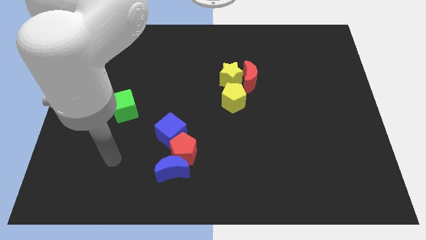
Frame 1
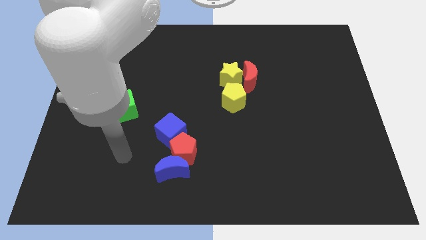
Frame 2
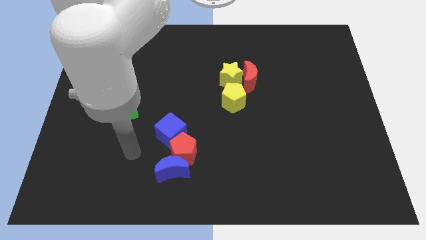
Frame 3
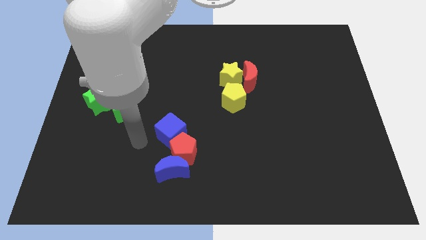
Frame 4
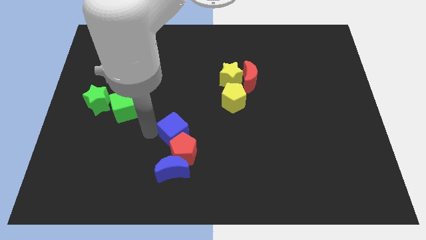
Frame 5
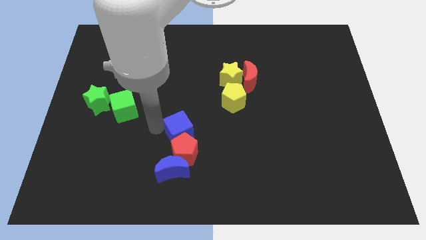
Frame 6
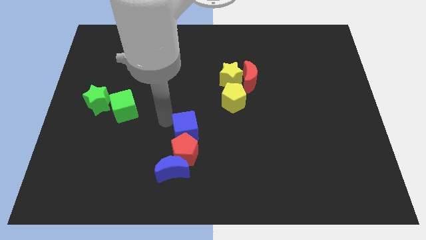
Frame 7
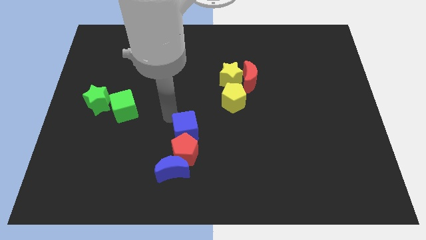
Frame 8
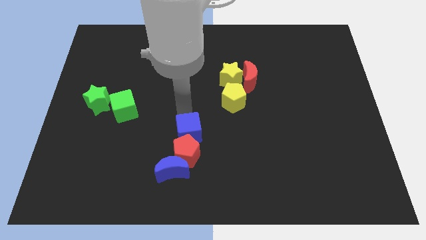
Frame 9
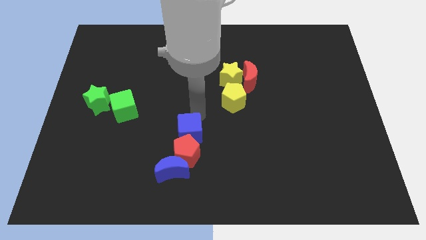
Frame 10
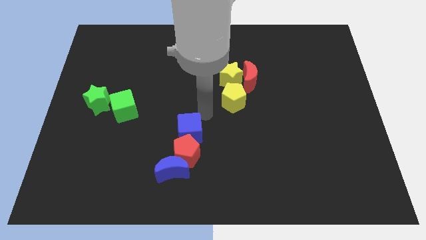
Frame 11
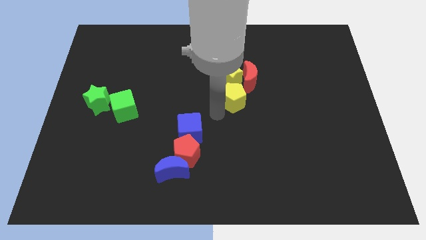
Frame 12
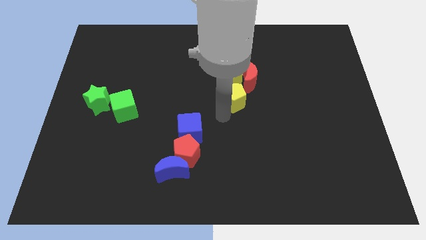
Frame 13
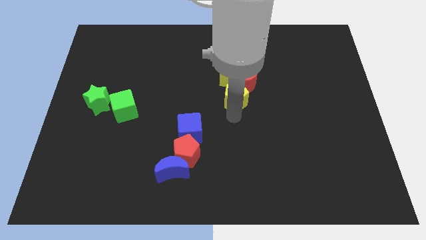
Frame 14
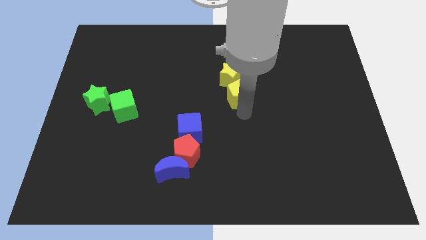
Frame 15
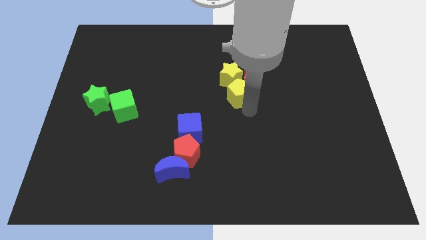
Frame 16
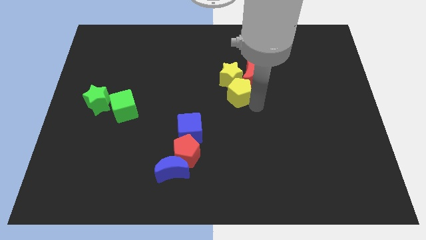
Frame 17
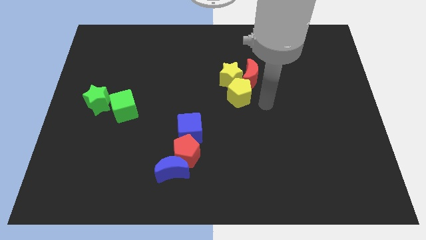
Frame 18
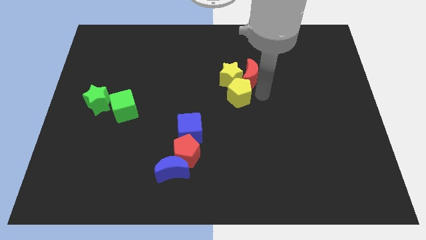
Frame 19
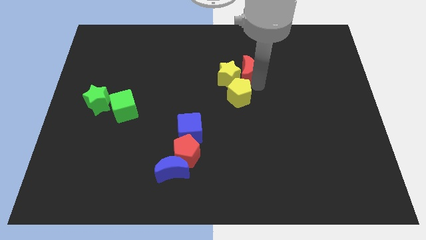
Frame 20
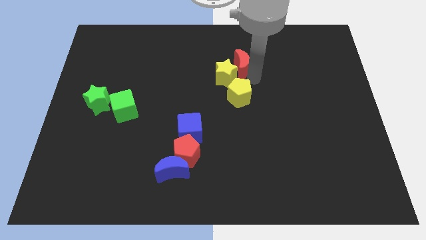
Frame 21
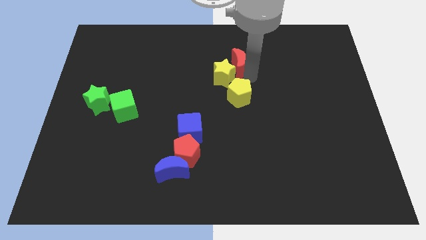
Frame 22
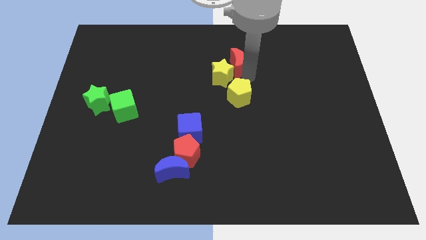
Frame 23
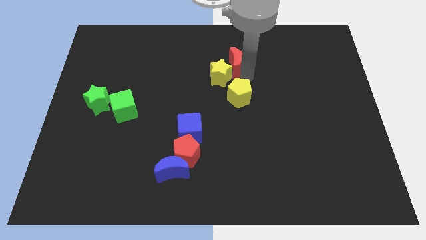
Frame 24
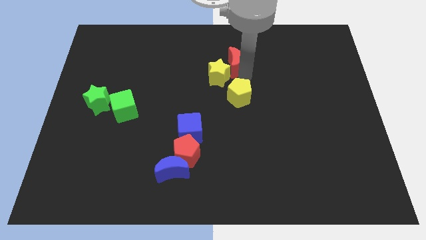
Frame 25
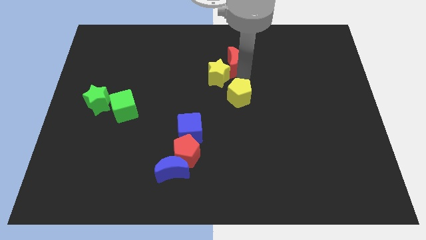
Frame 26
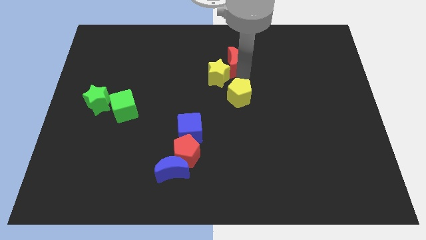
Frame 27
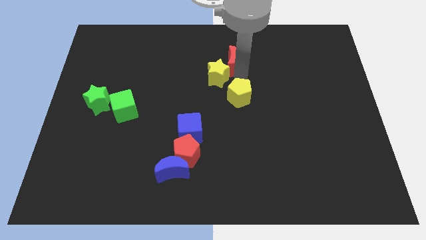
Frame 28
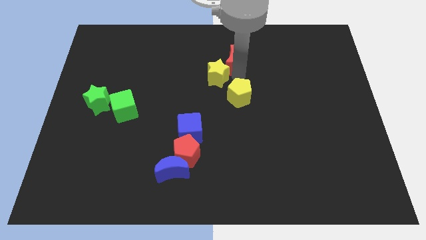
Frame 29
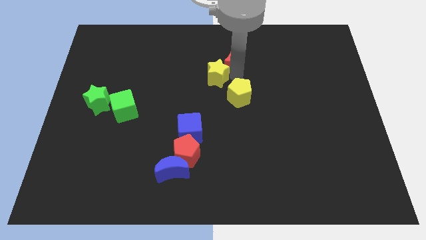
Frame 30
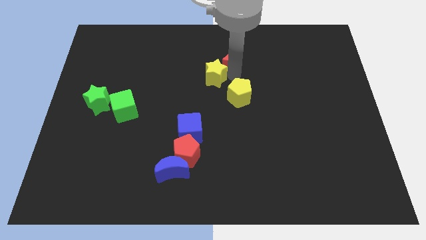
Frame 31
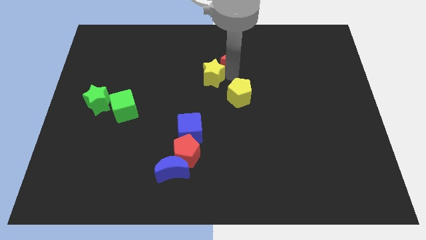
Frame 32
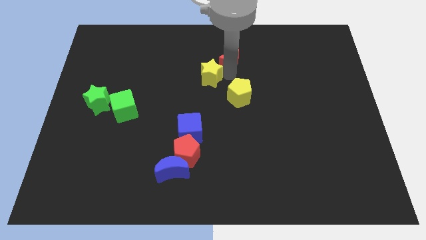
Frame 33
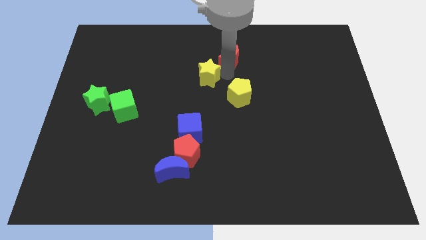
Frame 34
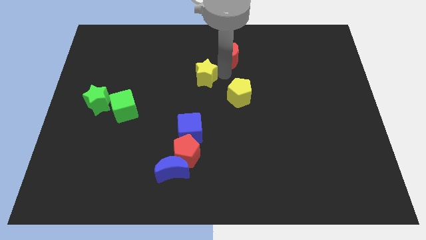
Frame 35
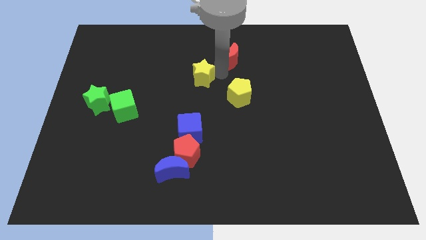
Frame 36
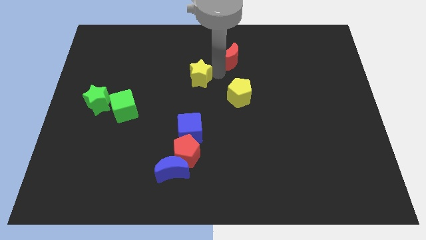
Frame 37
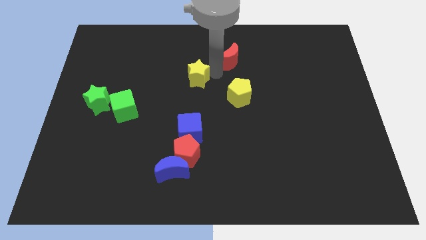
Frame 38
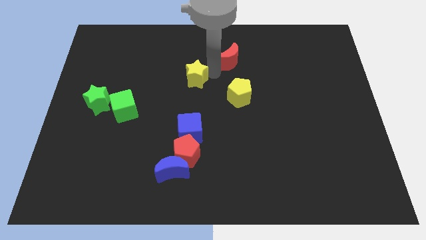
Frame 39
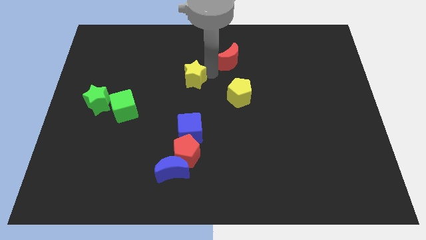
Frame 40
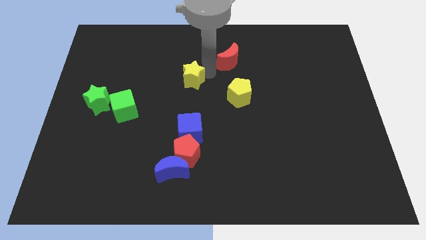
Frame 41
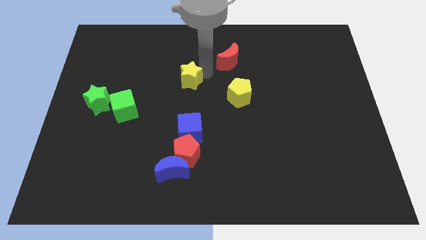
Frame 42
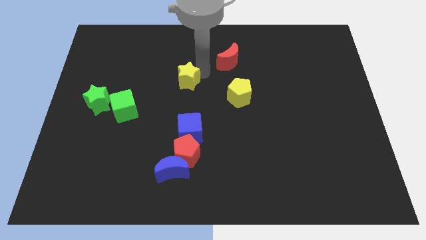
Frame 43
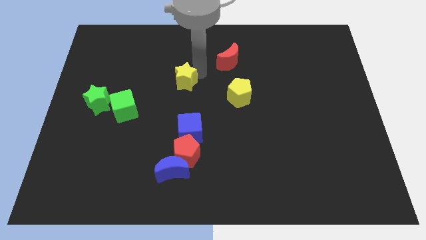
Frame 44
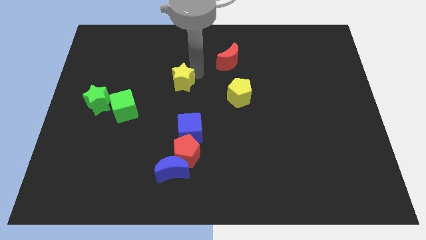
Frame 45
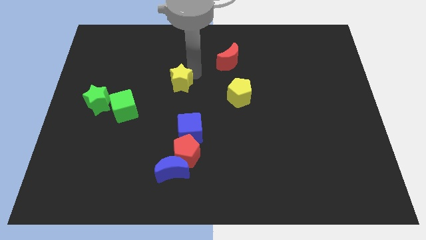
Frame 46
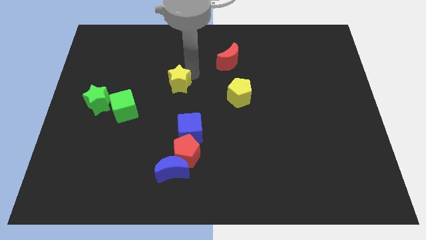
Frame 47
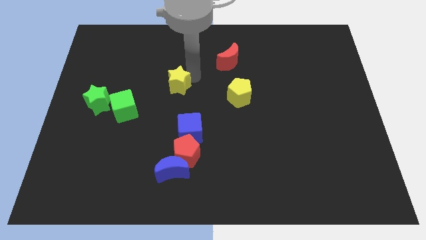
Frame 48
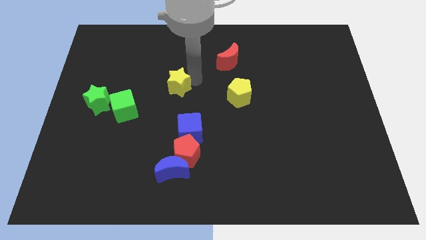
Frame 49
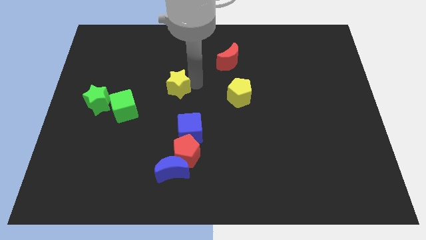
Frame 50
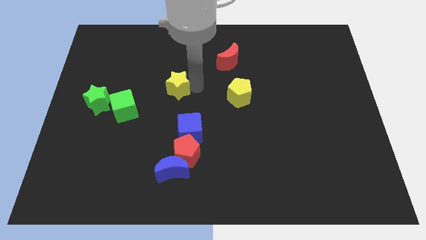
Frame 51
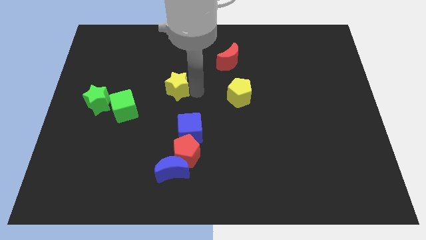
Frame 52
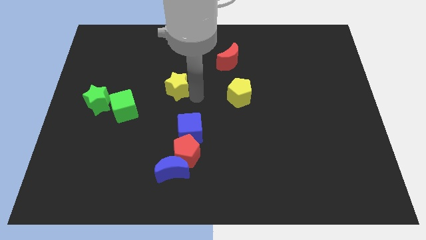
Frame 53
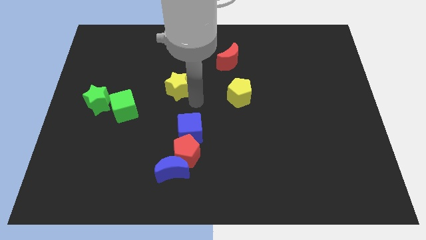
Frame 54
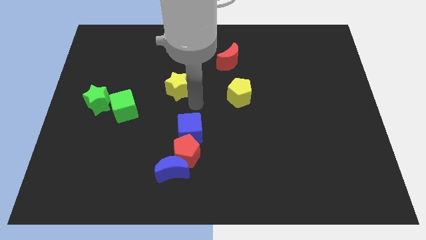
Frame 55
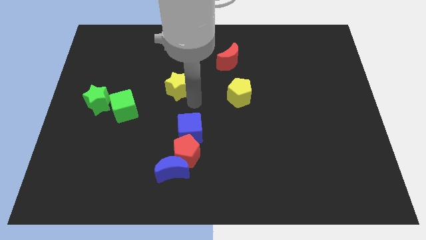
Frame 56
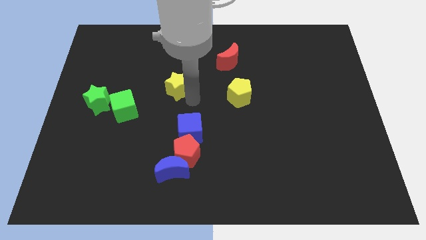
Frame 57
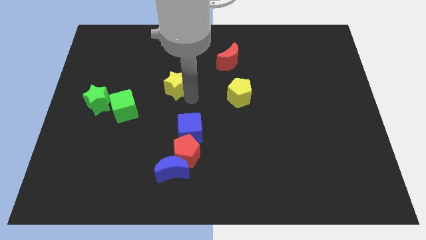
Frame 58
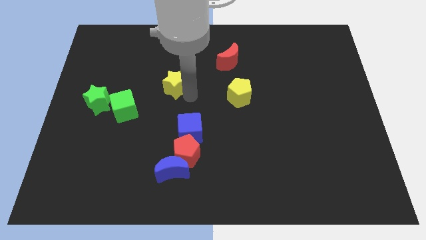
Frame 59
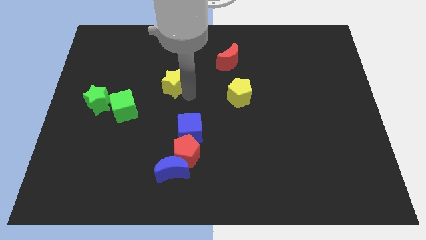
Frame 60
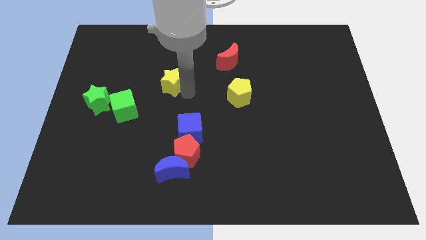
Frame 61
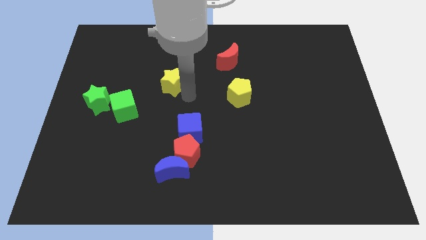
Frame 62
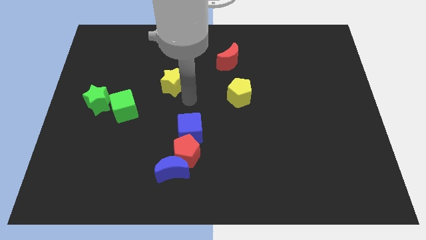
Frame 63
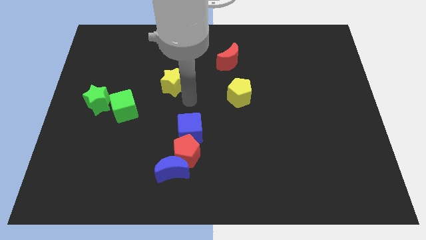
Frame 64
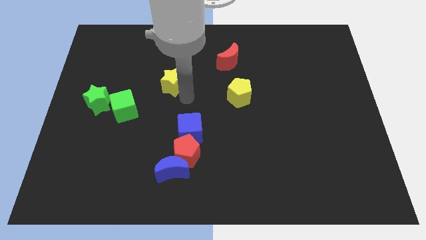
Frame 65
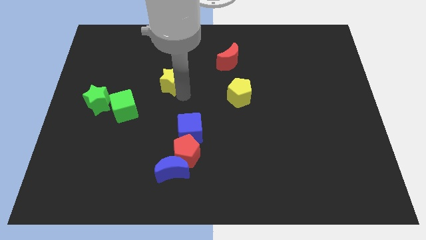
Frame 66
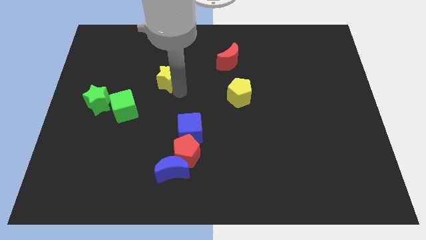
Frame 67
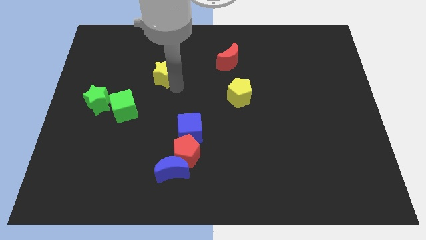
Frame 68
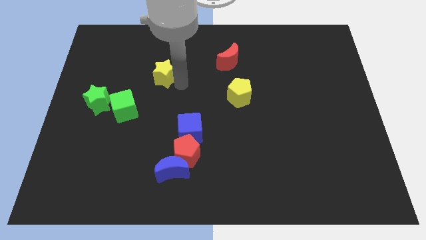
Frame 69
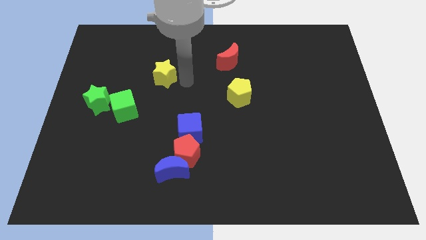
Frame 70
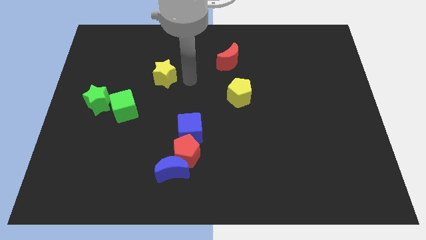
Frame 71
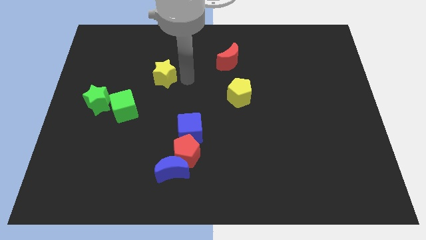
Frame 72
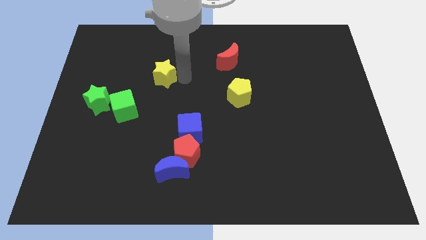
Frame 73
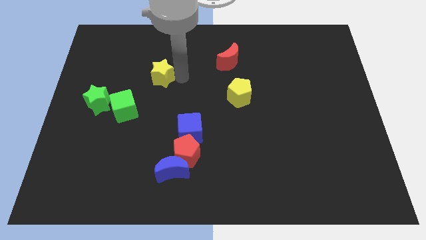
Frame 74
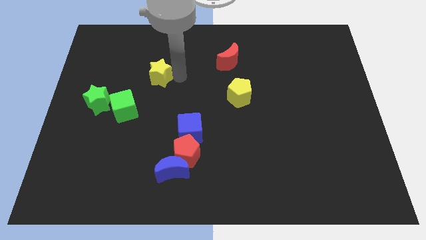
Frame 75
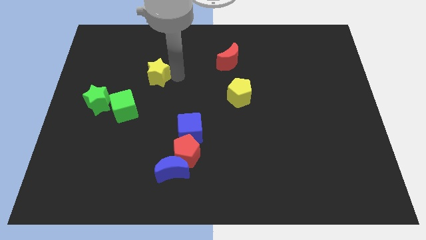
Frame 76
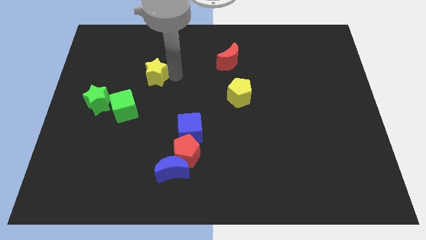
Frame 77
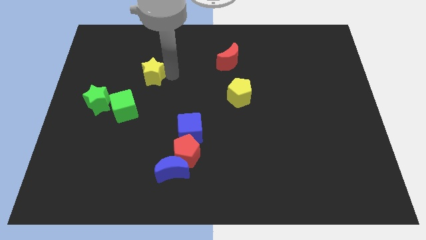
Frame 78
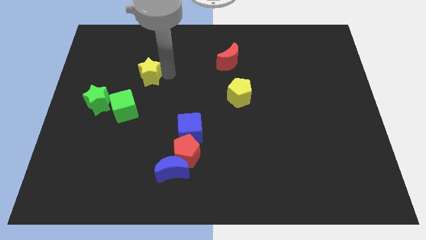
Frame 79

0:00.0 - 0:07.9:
slide the yellow star left
